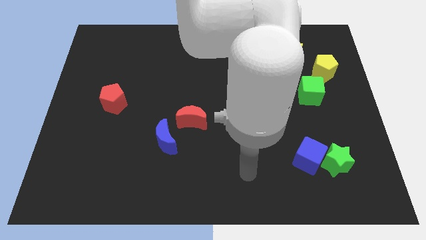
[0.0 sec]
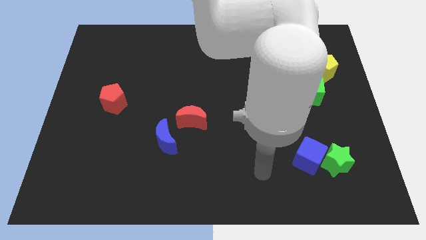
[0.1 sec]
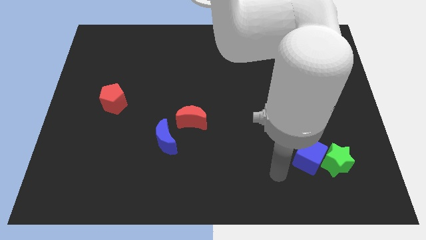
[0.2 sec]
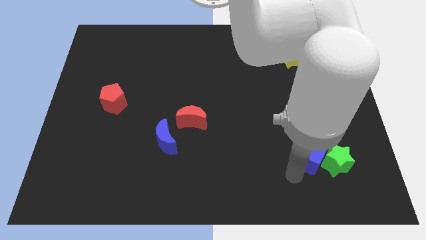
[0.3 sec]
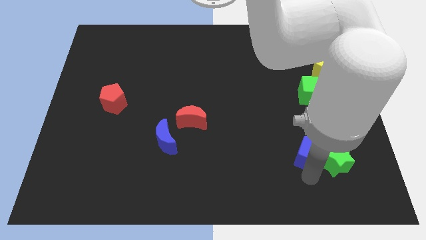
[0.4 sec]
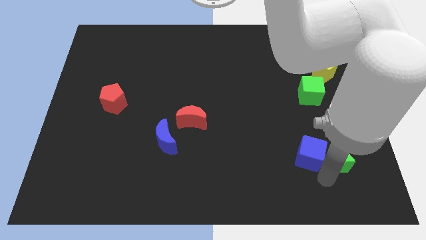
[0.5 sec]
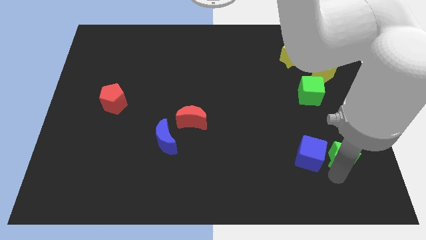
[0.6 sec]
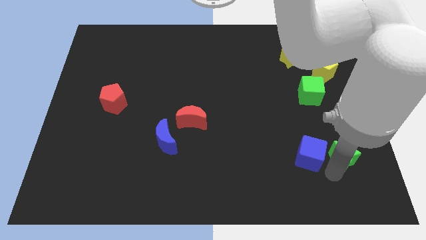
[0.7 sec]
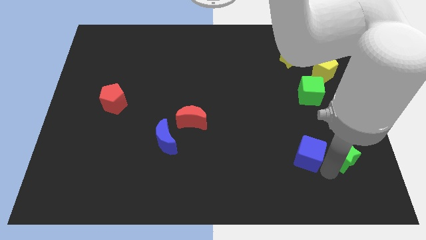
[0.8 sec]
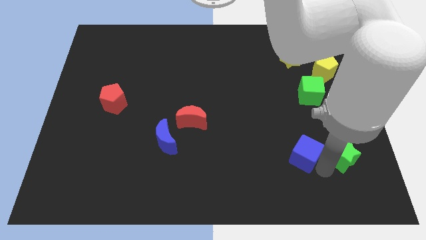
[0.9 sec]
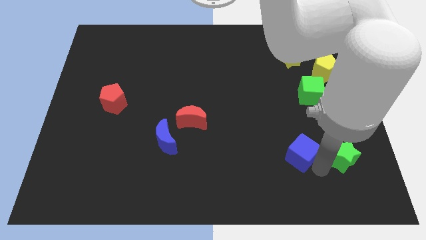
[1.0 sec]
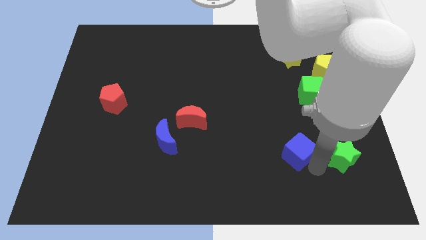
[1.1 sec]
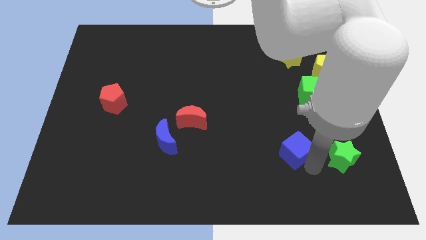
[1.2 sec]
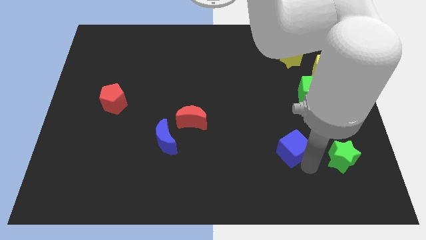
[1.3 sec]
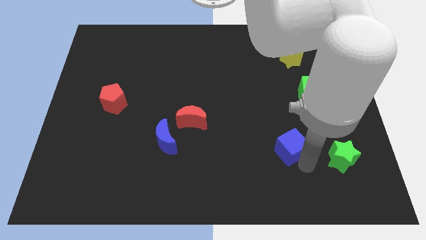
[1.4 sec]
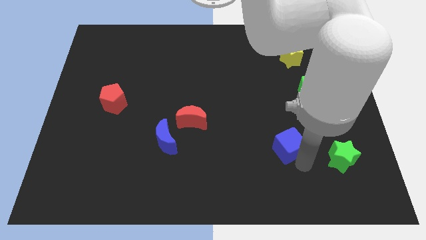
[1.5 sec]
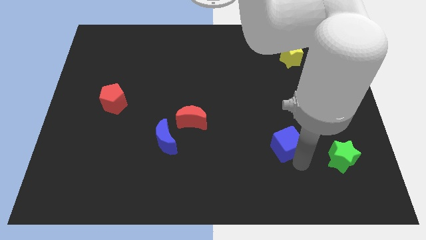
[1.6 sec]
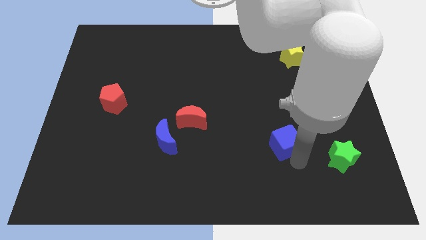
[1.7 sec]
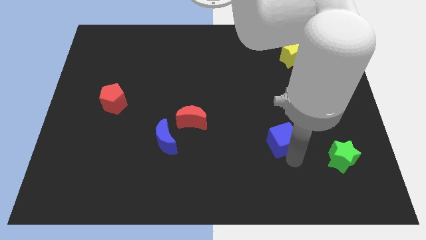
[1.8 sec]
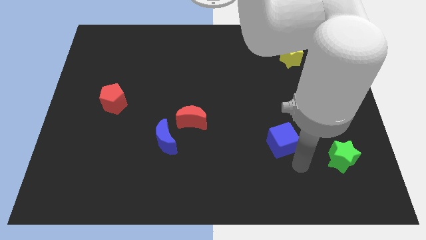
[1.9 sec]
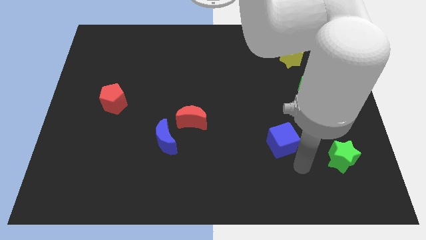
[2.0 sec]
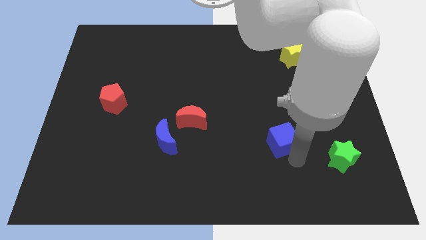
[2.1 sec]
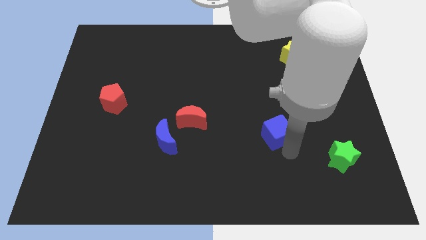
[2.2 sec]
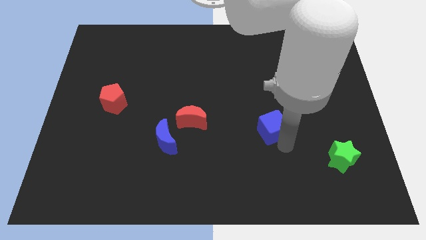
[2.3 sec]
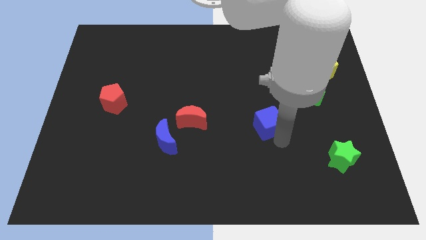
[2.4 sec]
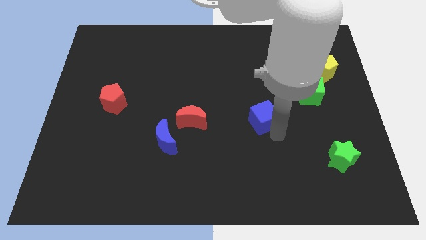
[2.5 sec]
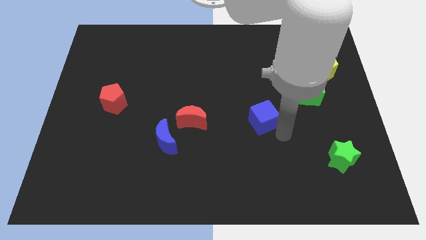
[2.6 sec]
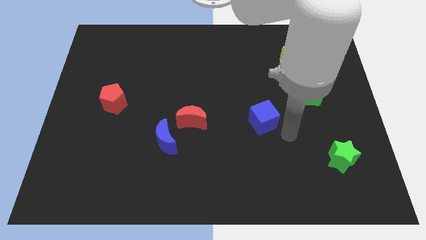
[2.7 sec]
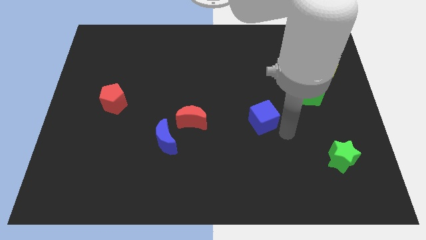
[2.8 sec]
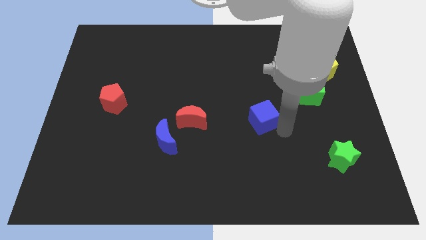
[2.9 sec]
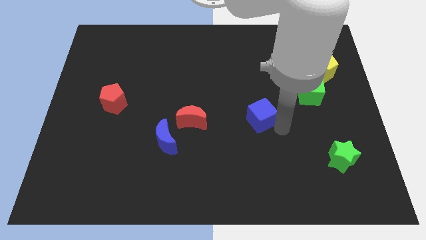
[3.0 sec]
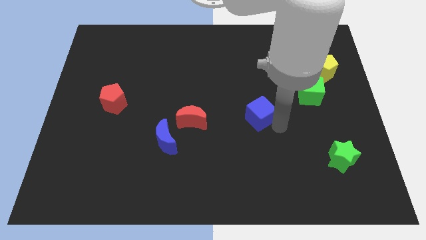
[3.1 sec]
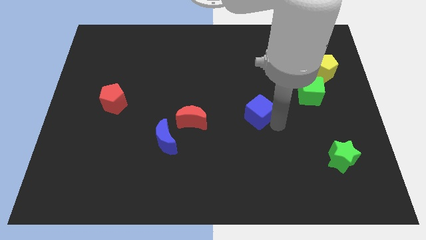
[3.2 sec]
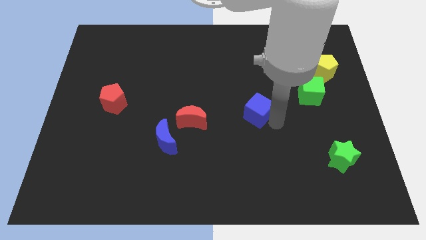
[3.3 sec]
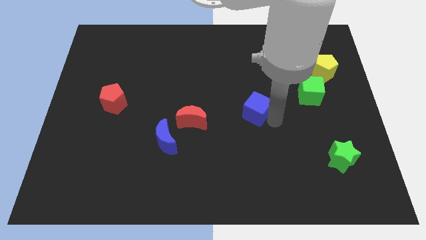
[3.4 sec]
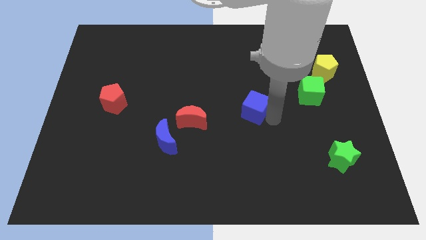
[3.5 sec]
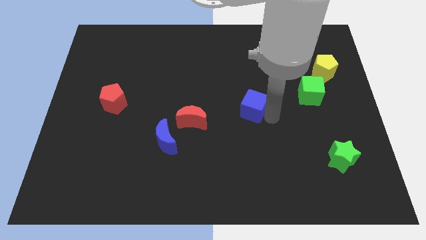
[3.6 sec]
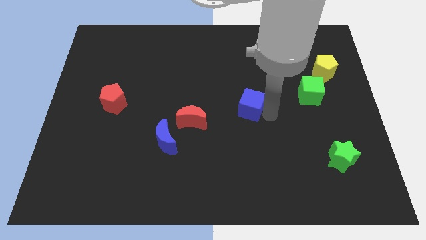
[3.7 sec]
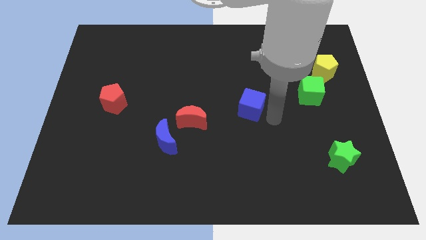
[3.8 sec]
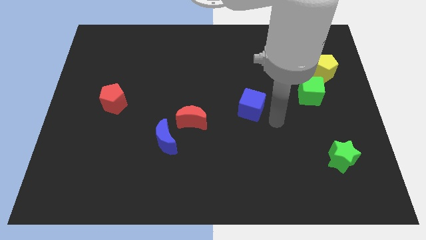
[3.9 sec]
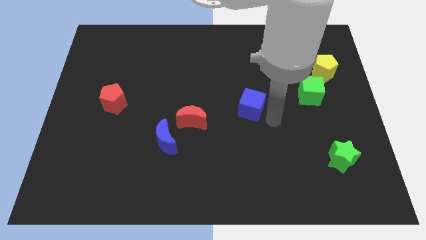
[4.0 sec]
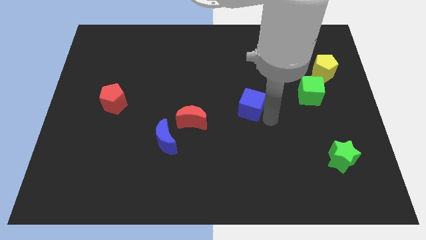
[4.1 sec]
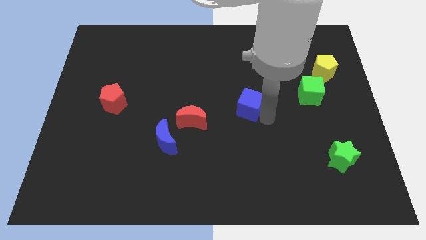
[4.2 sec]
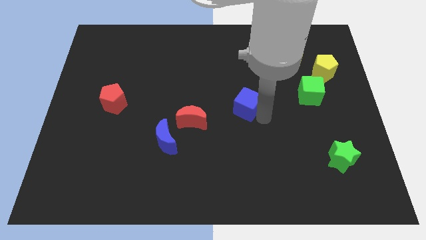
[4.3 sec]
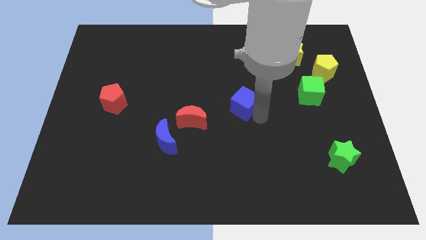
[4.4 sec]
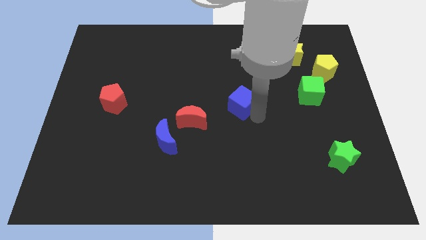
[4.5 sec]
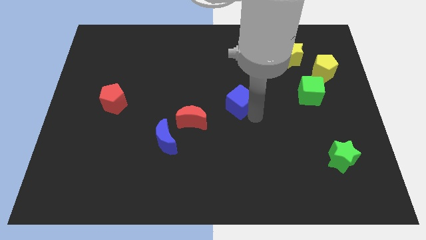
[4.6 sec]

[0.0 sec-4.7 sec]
slide the blue cube diagonally upwards and left

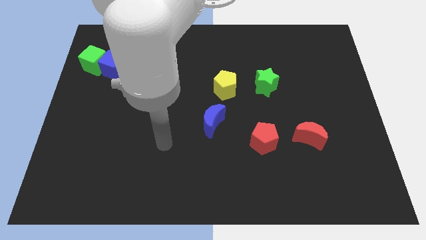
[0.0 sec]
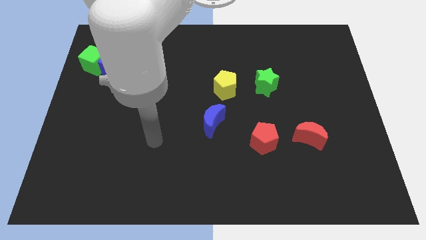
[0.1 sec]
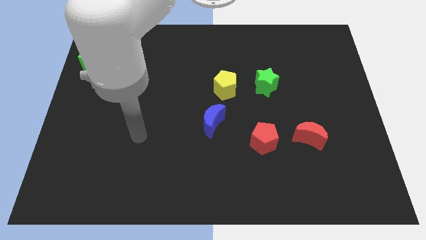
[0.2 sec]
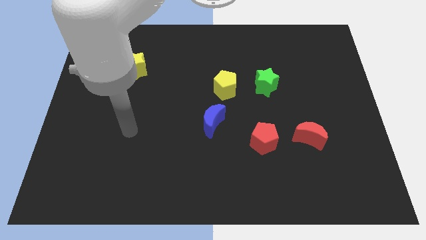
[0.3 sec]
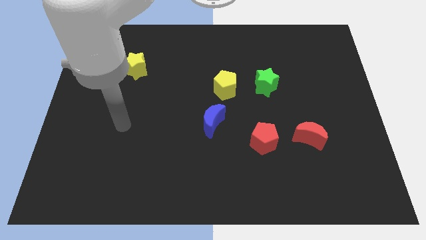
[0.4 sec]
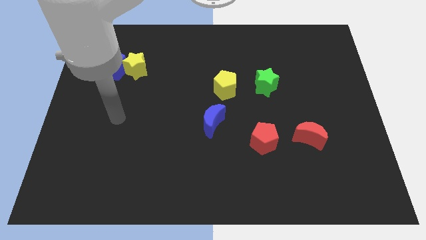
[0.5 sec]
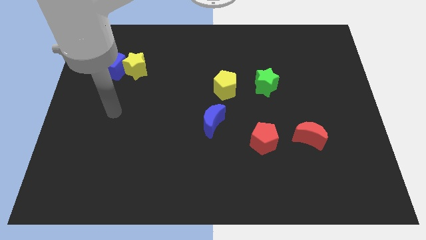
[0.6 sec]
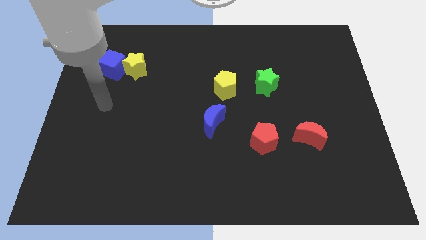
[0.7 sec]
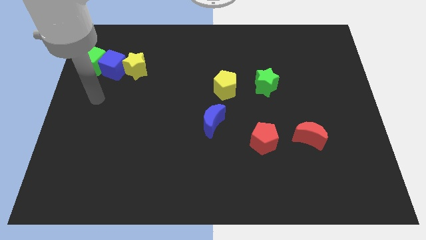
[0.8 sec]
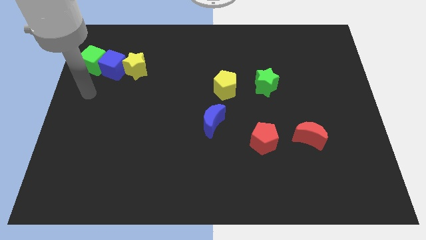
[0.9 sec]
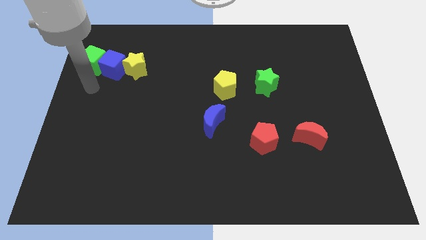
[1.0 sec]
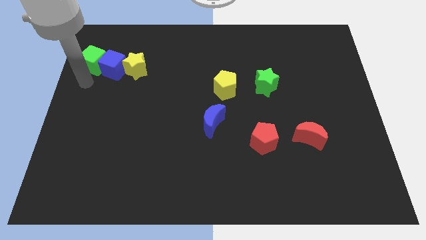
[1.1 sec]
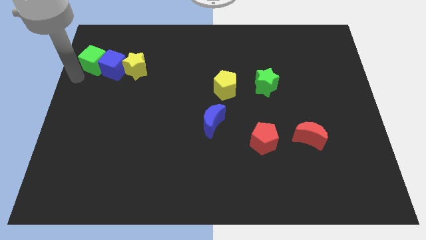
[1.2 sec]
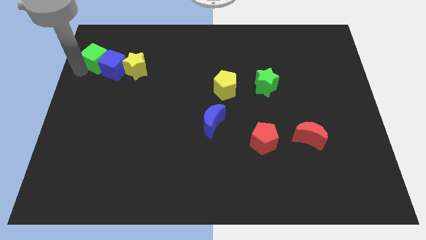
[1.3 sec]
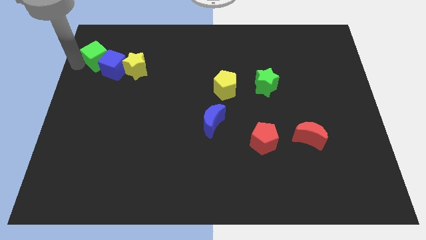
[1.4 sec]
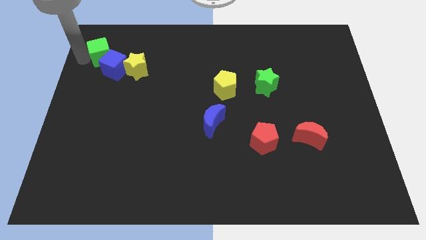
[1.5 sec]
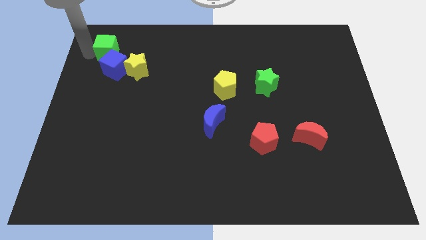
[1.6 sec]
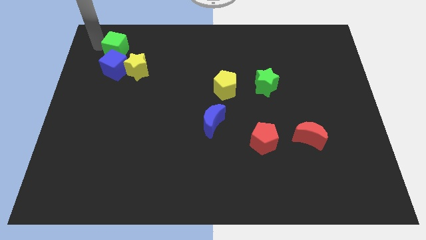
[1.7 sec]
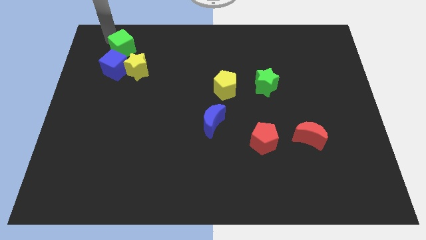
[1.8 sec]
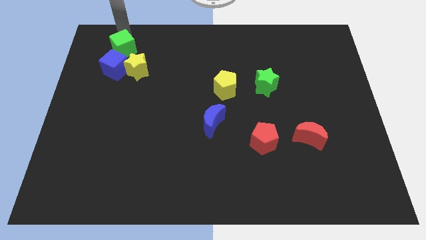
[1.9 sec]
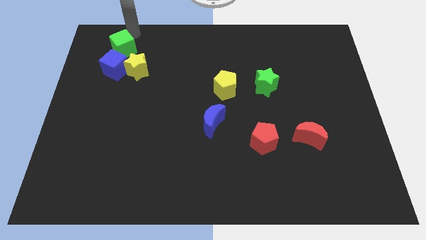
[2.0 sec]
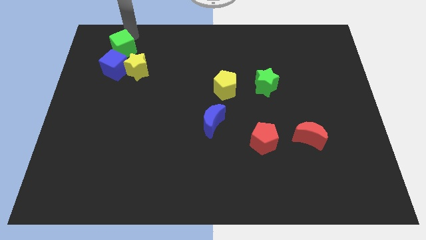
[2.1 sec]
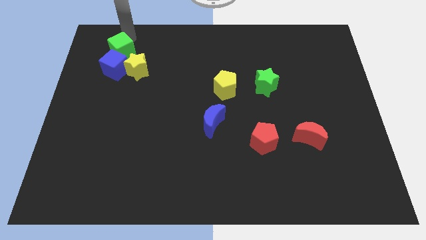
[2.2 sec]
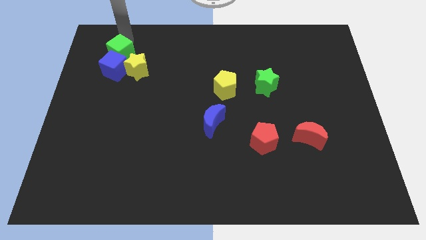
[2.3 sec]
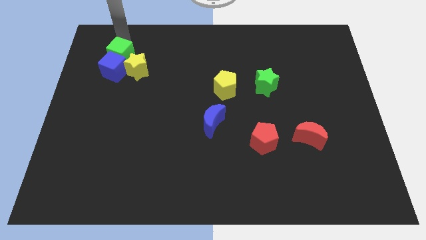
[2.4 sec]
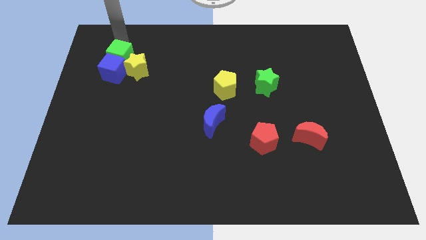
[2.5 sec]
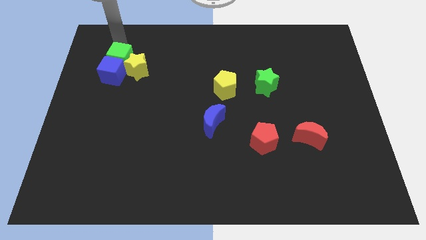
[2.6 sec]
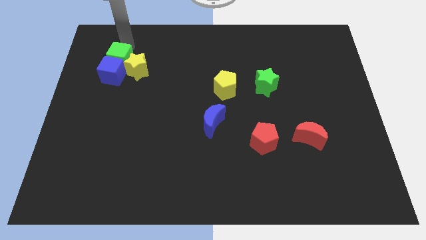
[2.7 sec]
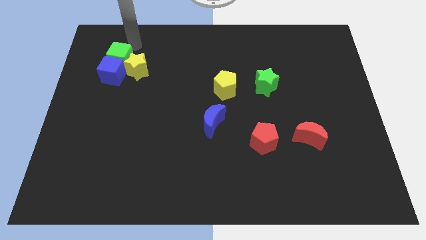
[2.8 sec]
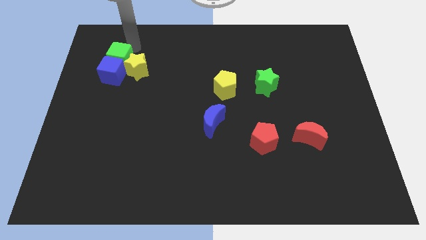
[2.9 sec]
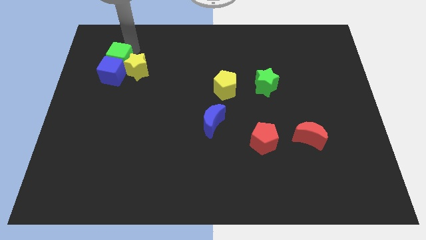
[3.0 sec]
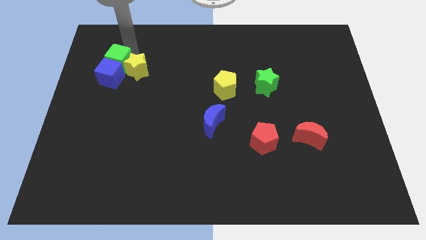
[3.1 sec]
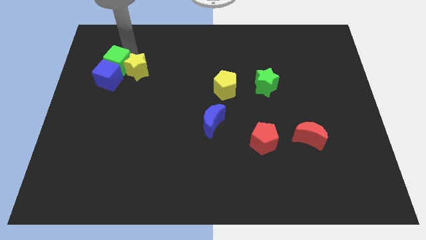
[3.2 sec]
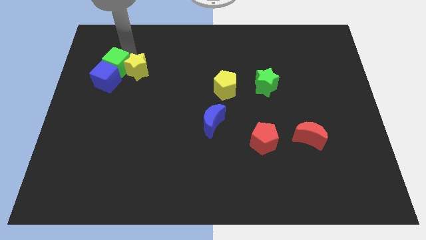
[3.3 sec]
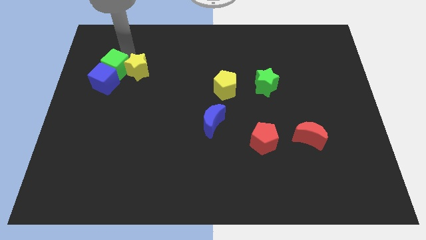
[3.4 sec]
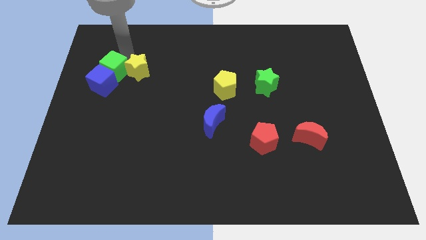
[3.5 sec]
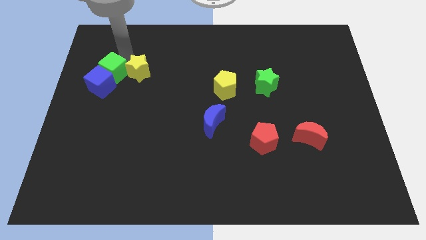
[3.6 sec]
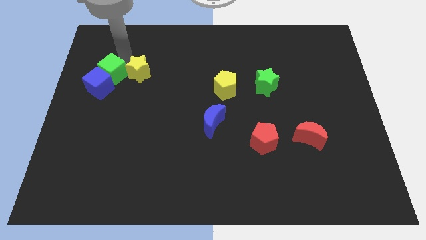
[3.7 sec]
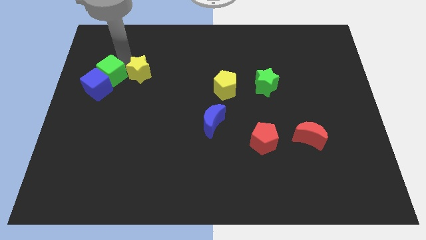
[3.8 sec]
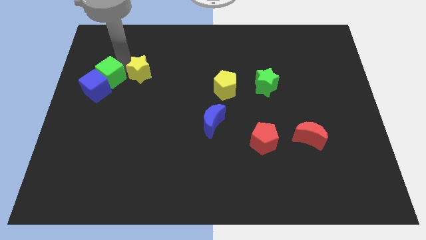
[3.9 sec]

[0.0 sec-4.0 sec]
slightly move the green cube diagonally downwards and right
